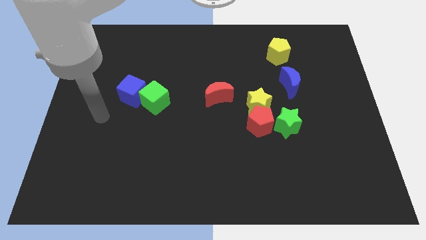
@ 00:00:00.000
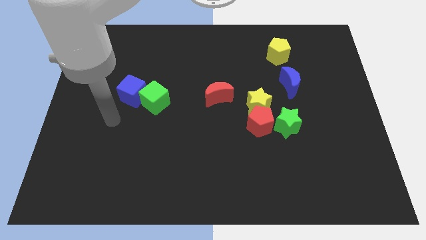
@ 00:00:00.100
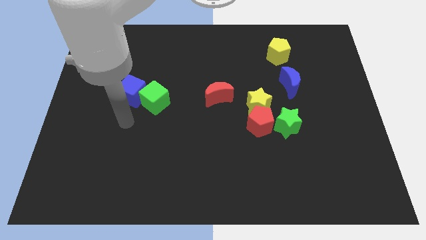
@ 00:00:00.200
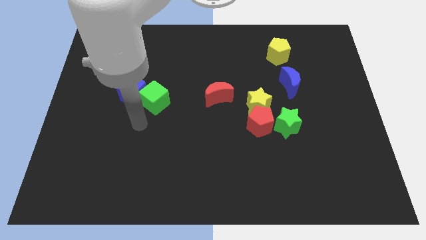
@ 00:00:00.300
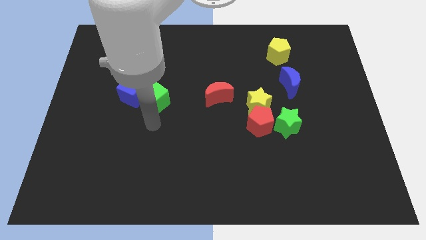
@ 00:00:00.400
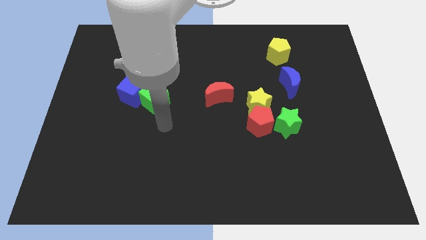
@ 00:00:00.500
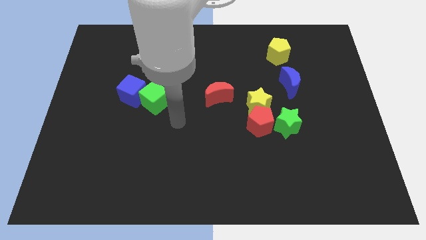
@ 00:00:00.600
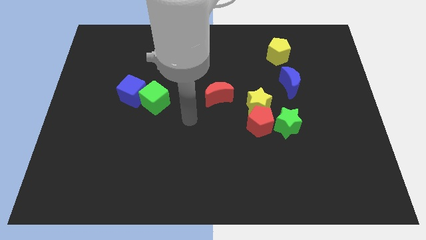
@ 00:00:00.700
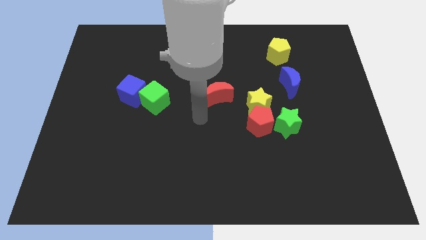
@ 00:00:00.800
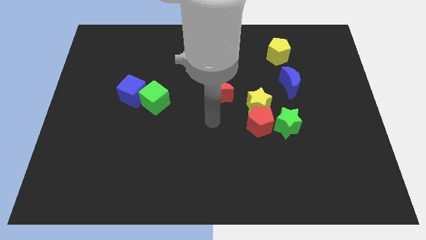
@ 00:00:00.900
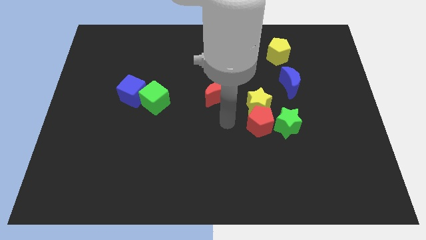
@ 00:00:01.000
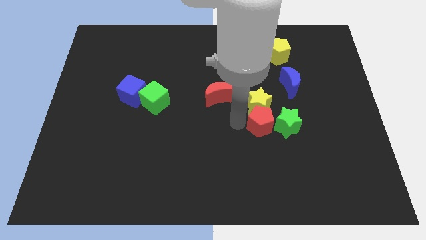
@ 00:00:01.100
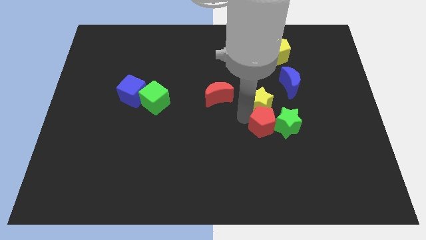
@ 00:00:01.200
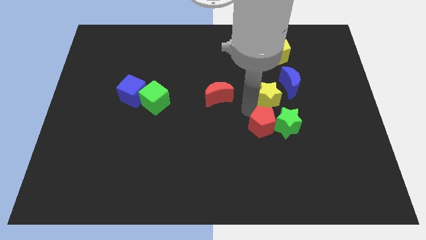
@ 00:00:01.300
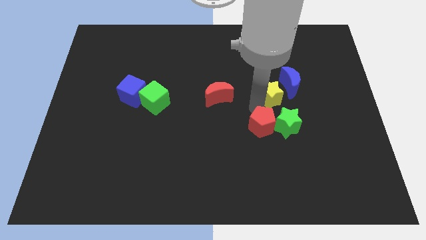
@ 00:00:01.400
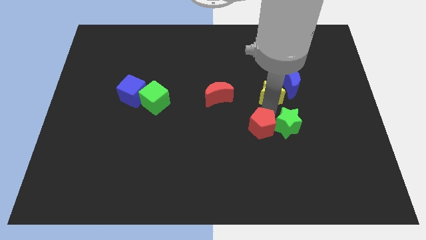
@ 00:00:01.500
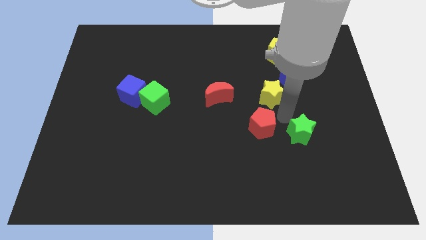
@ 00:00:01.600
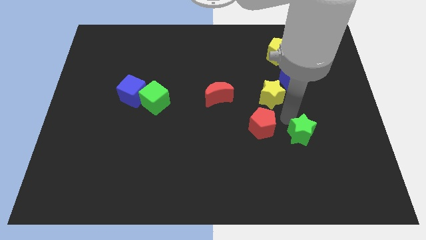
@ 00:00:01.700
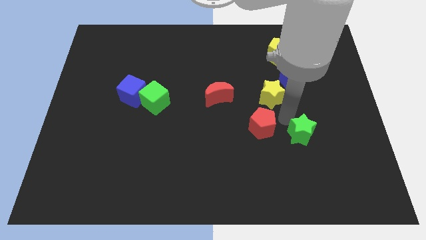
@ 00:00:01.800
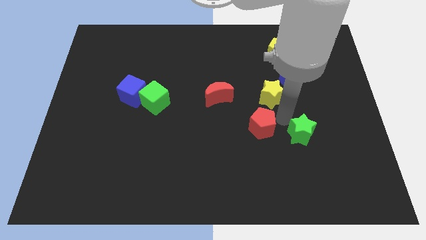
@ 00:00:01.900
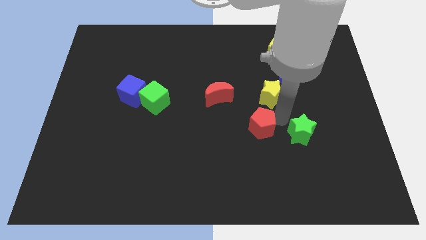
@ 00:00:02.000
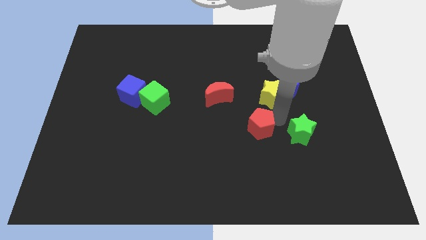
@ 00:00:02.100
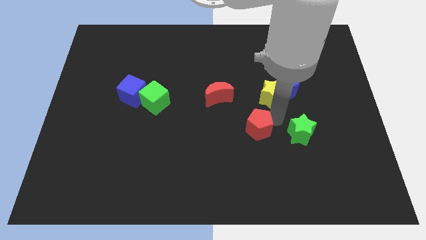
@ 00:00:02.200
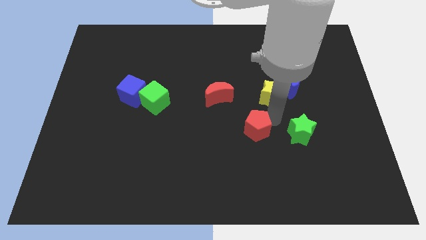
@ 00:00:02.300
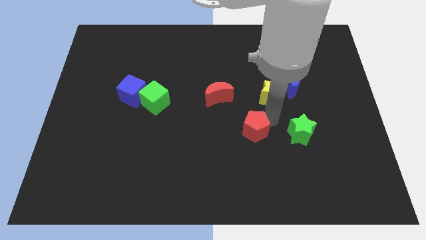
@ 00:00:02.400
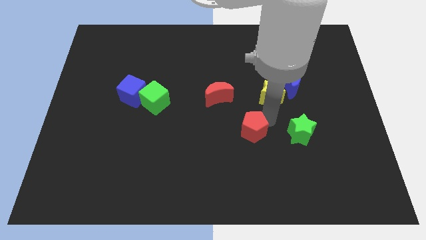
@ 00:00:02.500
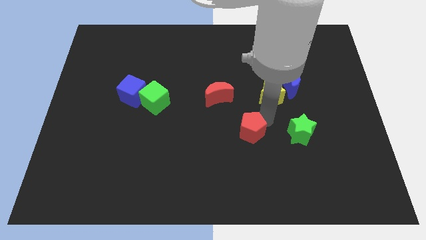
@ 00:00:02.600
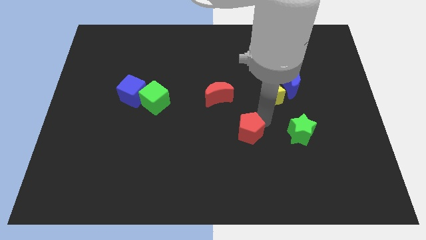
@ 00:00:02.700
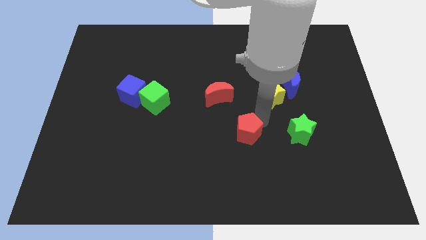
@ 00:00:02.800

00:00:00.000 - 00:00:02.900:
pull the red pentagon apart from the yellow star and green star

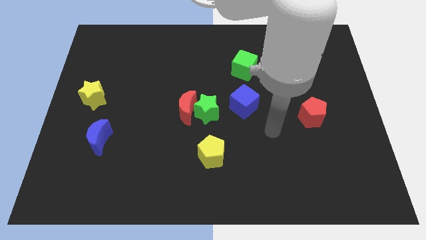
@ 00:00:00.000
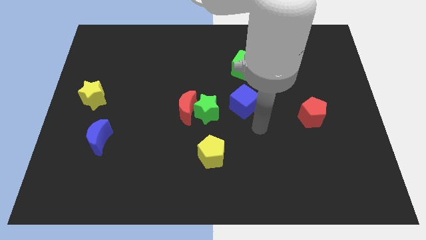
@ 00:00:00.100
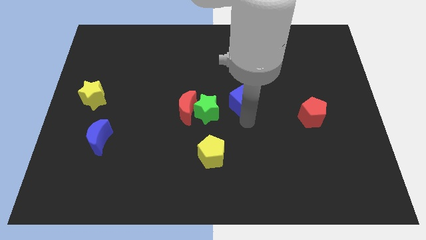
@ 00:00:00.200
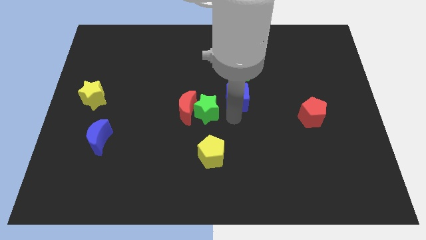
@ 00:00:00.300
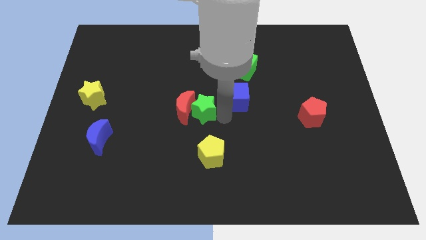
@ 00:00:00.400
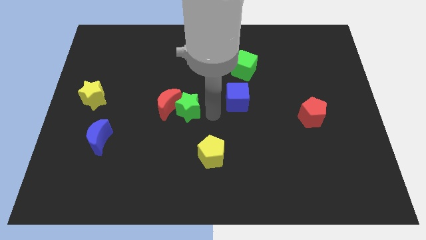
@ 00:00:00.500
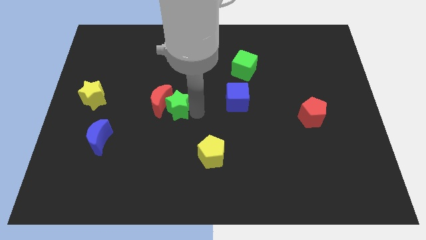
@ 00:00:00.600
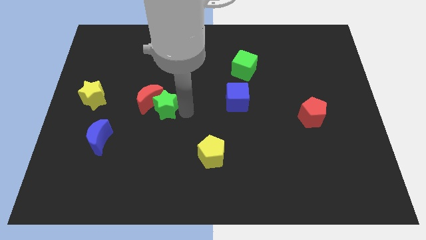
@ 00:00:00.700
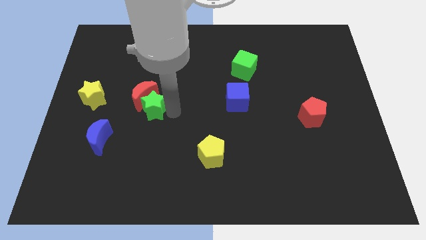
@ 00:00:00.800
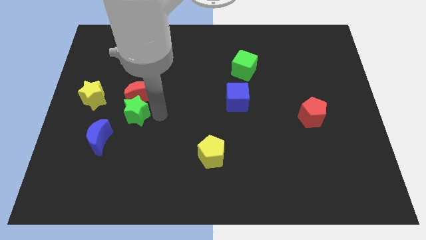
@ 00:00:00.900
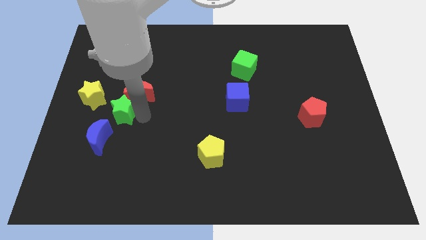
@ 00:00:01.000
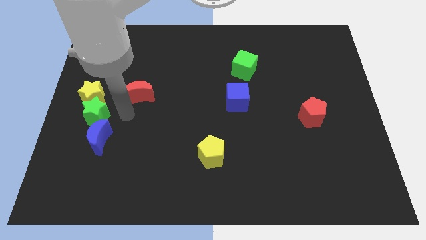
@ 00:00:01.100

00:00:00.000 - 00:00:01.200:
separate the red moon from the green star

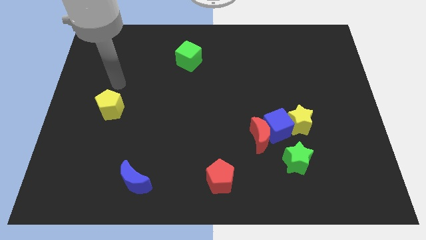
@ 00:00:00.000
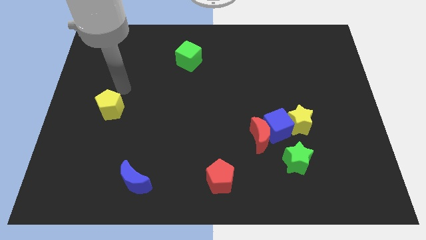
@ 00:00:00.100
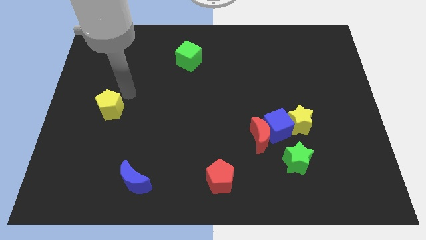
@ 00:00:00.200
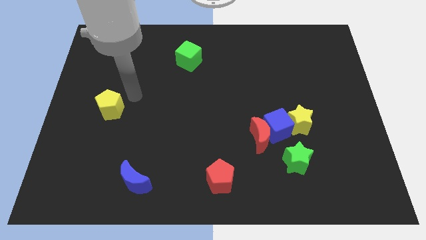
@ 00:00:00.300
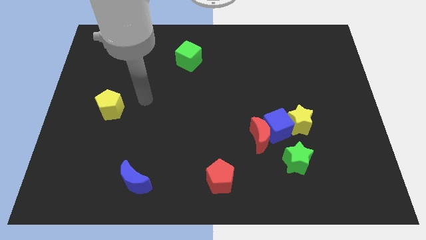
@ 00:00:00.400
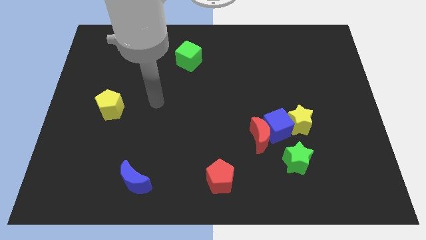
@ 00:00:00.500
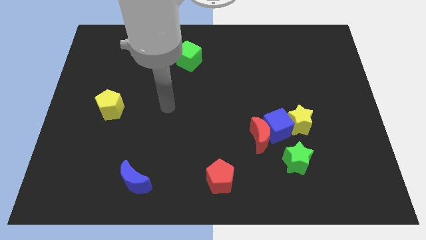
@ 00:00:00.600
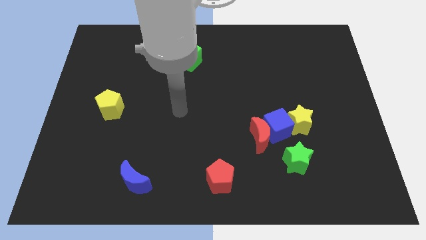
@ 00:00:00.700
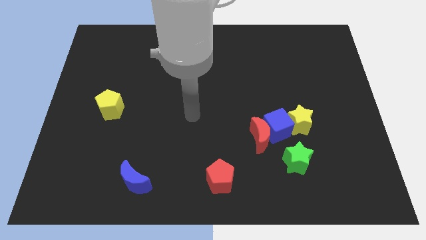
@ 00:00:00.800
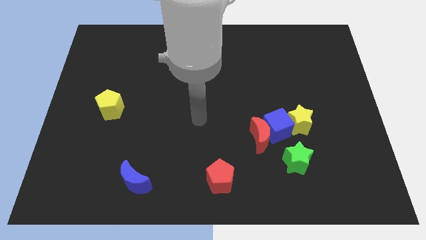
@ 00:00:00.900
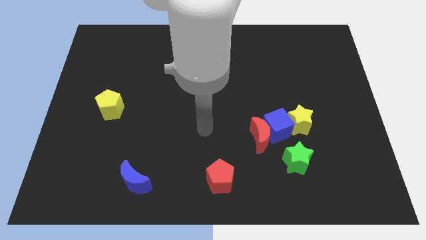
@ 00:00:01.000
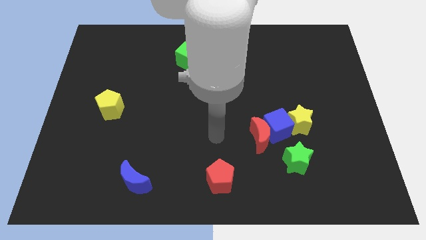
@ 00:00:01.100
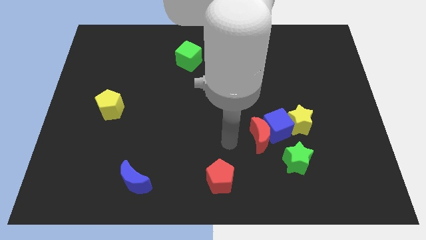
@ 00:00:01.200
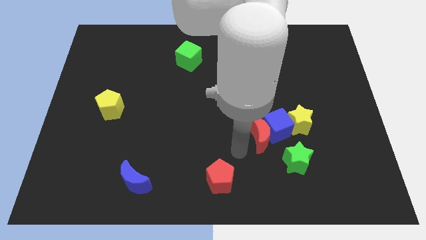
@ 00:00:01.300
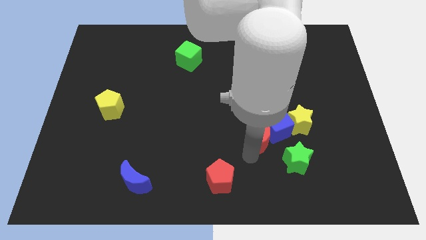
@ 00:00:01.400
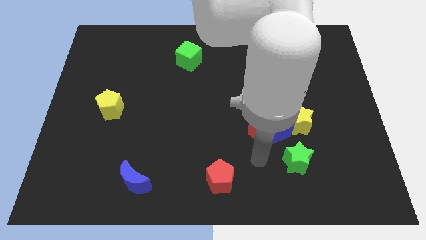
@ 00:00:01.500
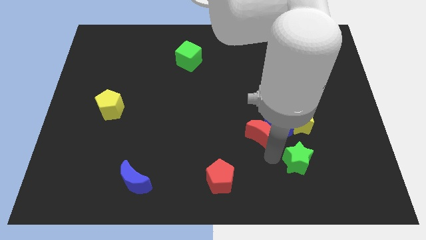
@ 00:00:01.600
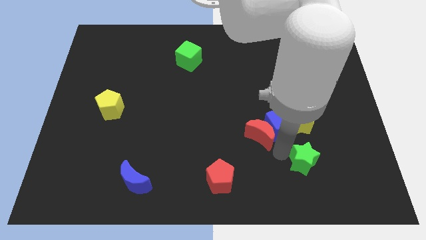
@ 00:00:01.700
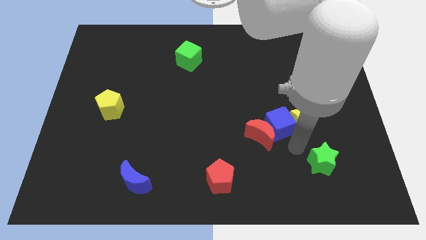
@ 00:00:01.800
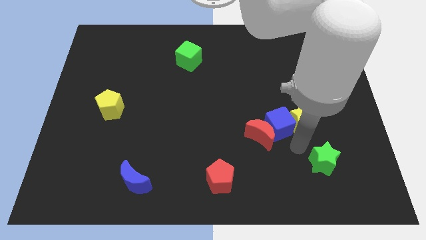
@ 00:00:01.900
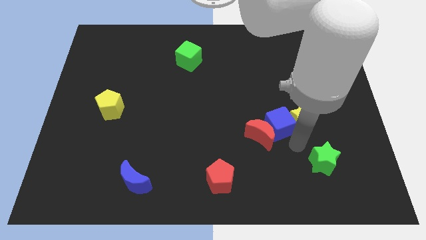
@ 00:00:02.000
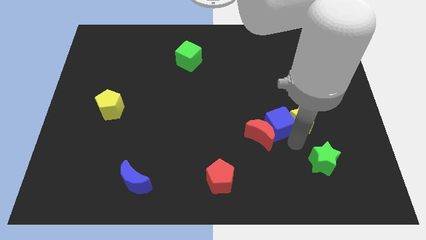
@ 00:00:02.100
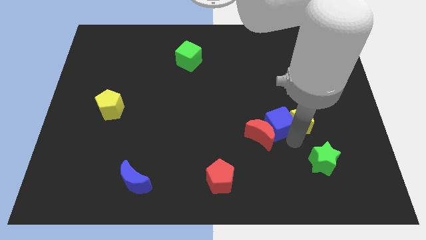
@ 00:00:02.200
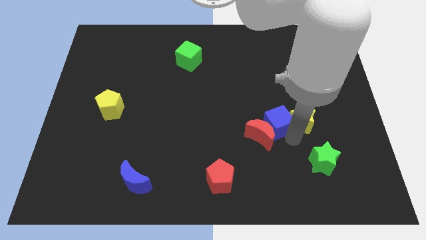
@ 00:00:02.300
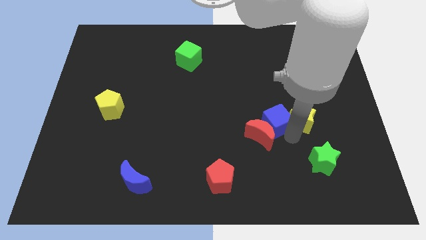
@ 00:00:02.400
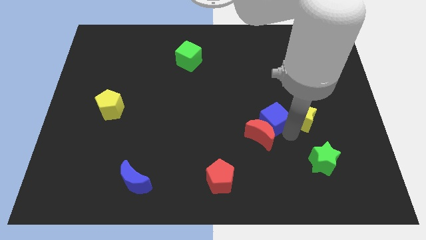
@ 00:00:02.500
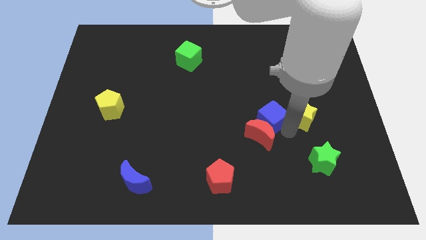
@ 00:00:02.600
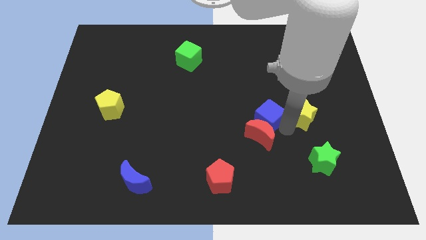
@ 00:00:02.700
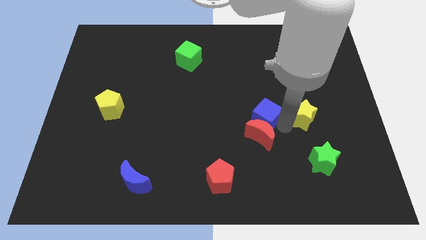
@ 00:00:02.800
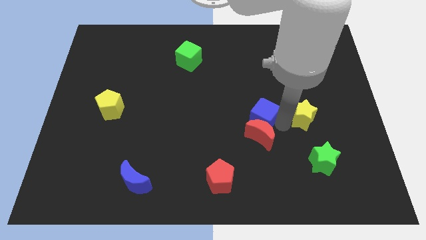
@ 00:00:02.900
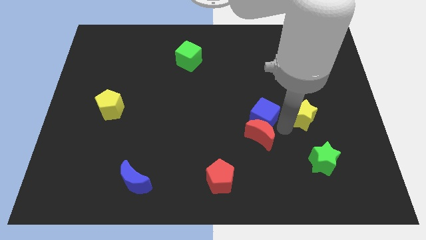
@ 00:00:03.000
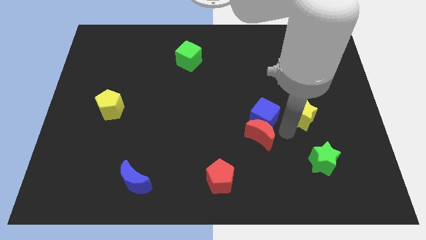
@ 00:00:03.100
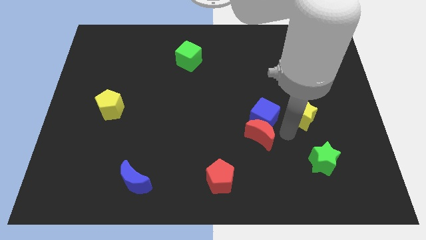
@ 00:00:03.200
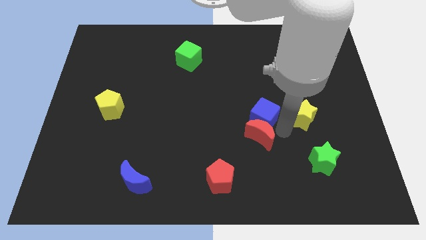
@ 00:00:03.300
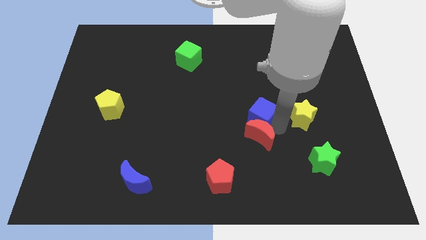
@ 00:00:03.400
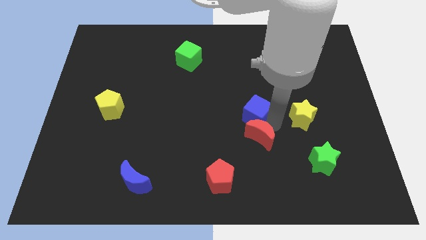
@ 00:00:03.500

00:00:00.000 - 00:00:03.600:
separate the blue cube from the group

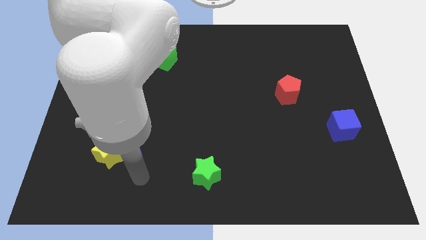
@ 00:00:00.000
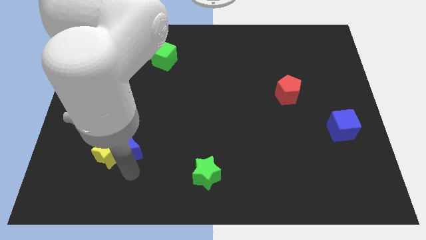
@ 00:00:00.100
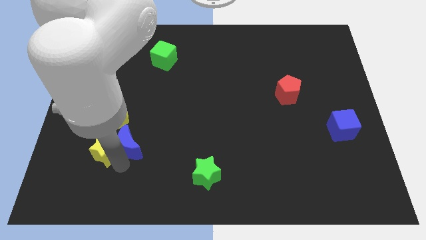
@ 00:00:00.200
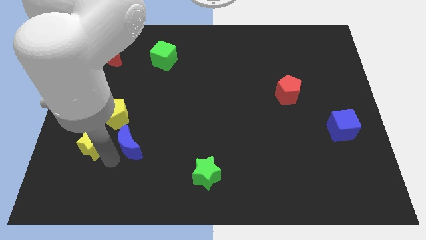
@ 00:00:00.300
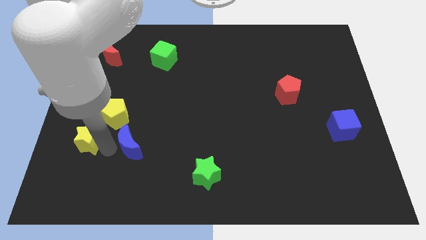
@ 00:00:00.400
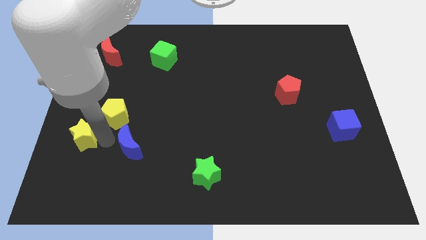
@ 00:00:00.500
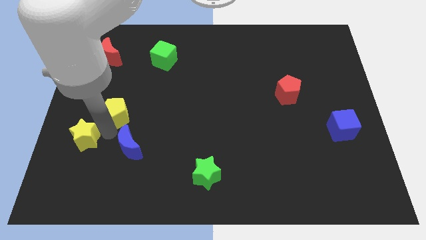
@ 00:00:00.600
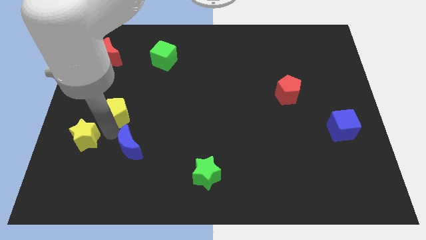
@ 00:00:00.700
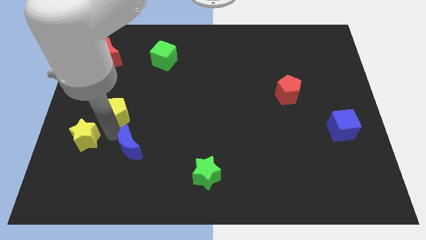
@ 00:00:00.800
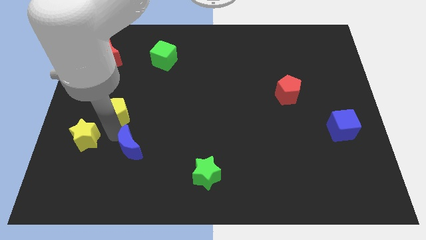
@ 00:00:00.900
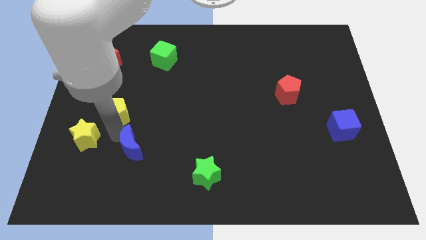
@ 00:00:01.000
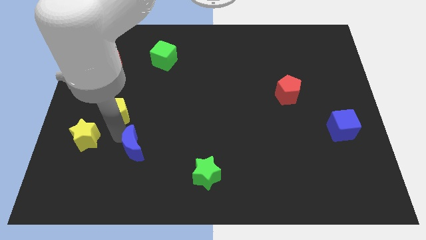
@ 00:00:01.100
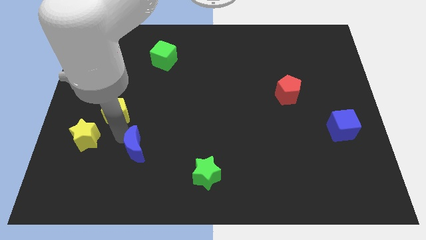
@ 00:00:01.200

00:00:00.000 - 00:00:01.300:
pull the blue moon apart from the yellow star and yellow pentagon

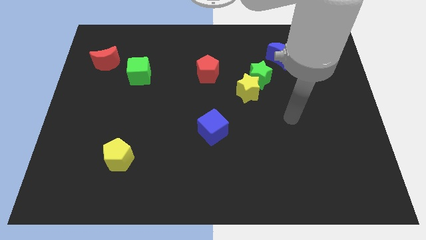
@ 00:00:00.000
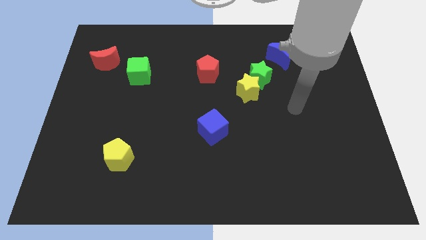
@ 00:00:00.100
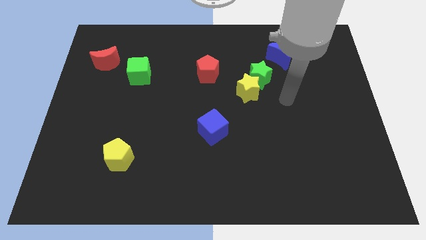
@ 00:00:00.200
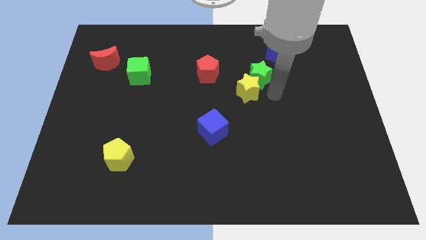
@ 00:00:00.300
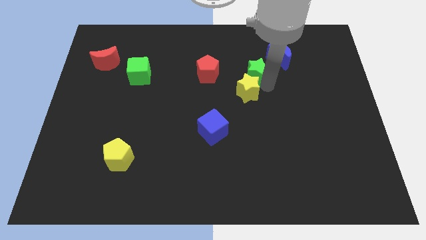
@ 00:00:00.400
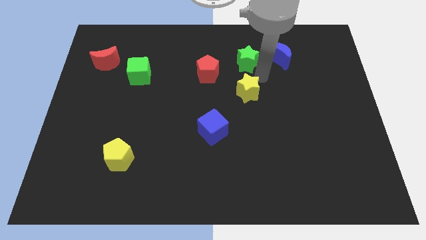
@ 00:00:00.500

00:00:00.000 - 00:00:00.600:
pull the yellow star apart from the green star
